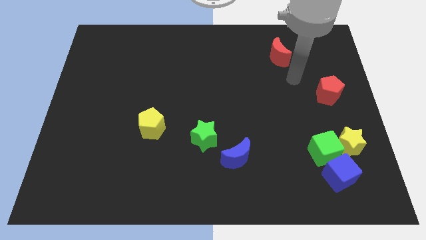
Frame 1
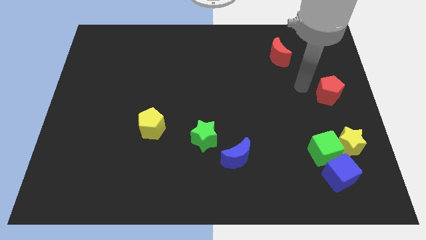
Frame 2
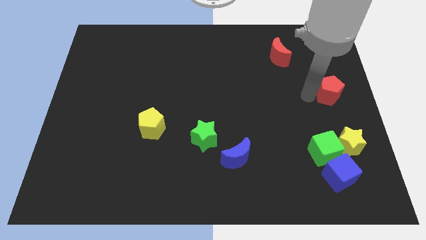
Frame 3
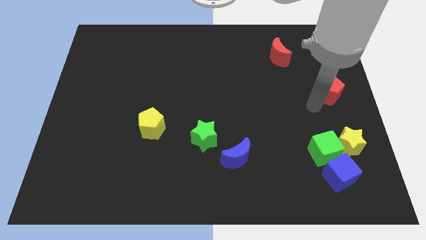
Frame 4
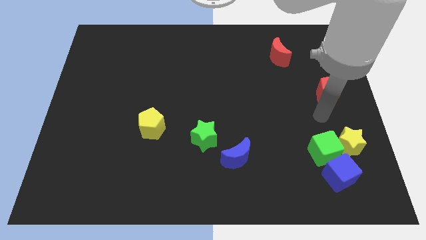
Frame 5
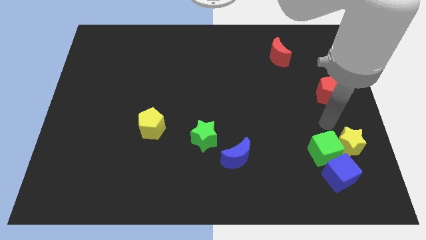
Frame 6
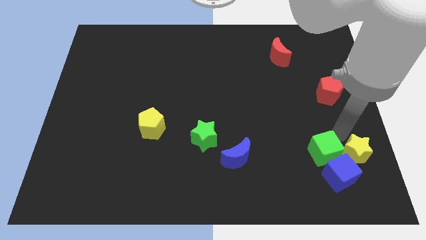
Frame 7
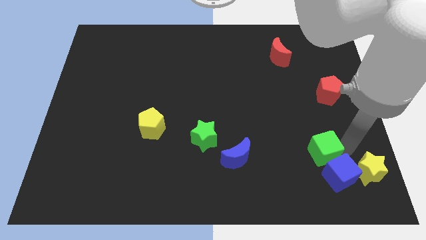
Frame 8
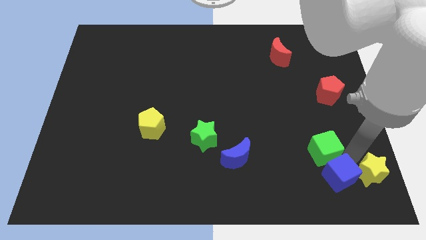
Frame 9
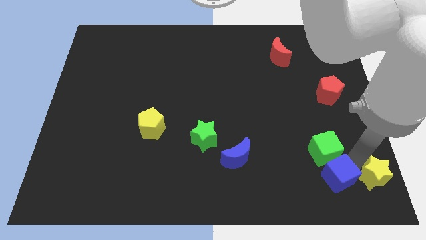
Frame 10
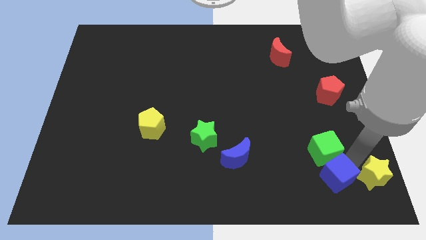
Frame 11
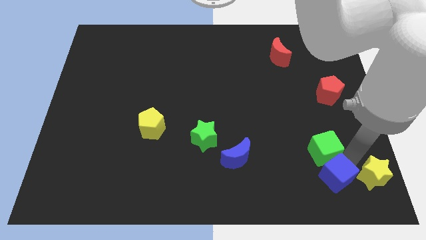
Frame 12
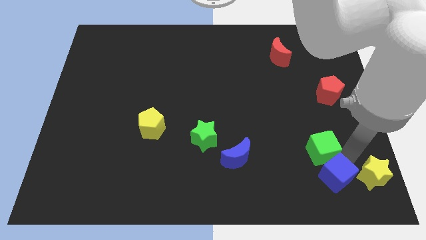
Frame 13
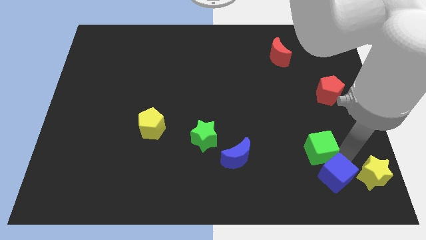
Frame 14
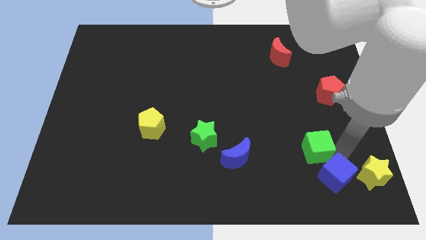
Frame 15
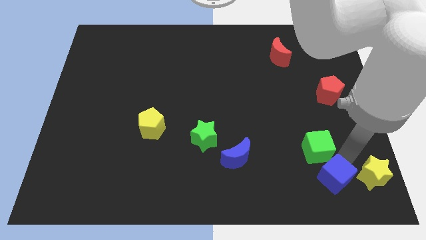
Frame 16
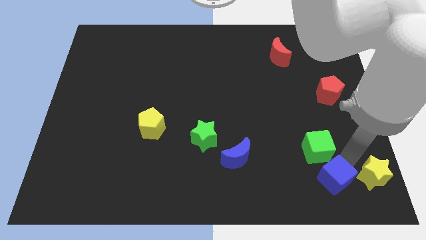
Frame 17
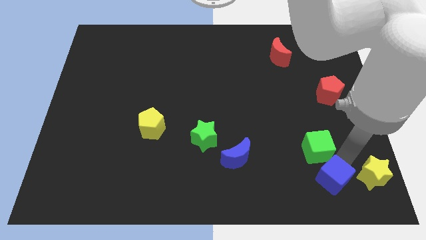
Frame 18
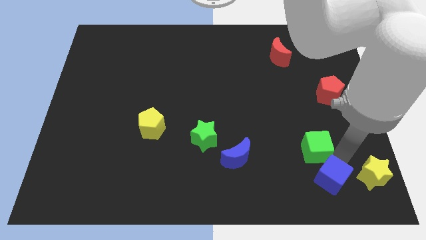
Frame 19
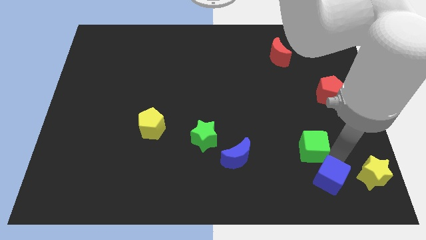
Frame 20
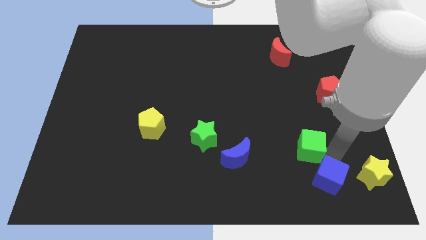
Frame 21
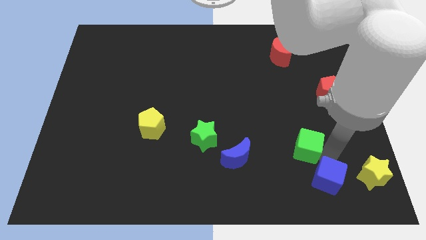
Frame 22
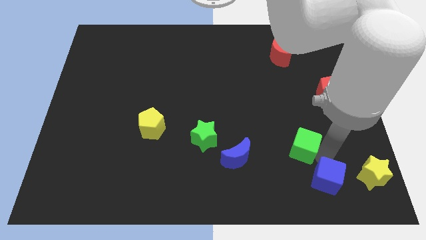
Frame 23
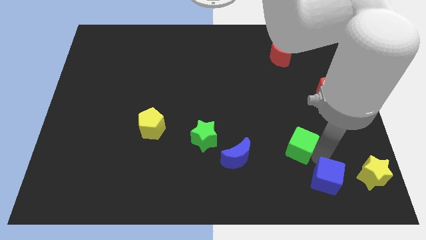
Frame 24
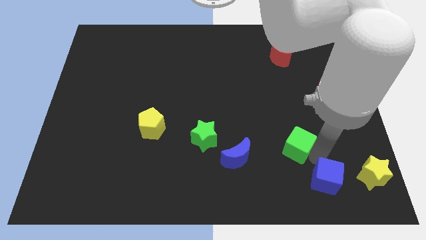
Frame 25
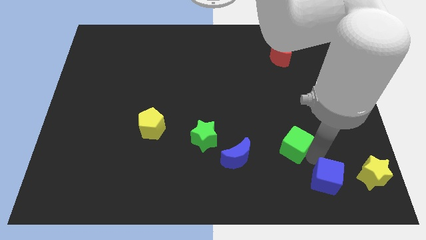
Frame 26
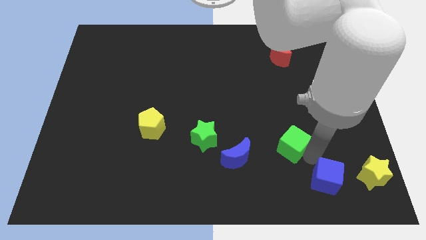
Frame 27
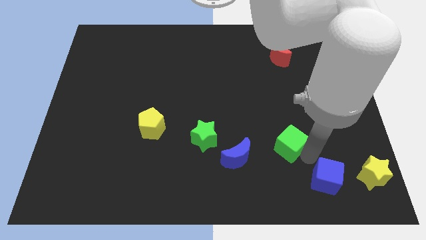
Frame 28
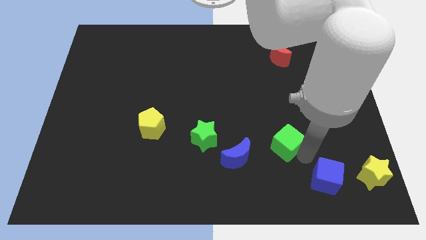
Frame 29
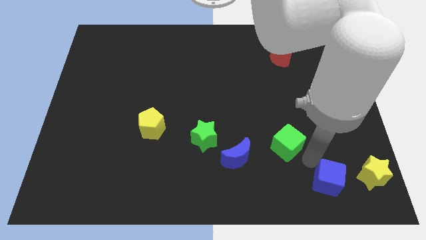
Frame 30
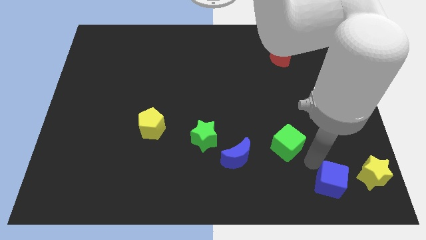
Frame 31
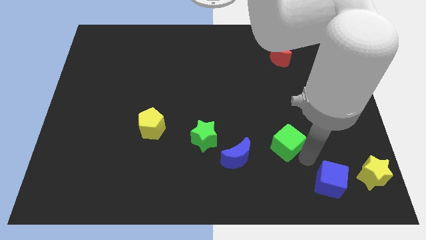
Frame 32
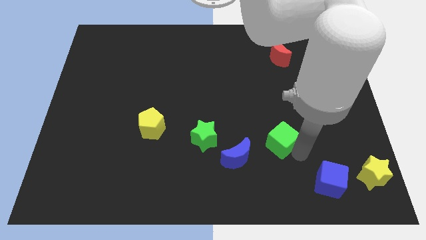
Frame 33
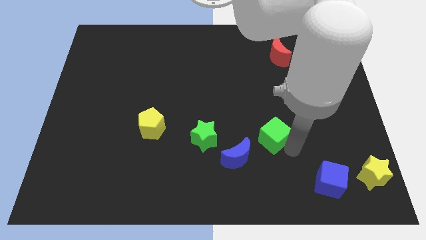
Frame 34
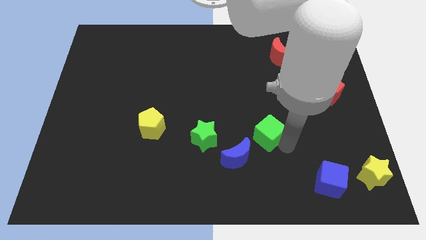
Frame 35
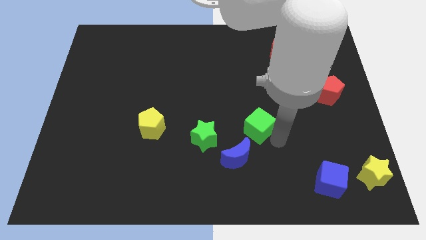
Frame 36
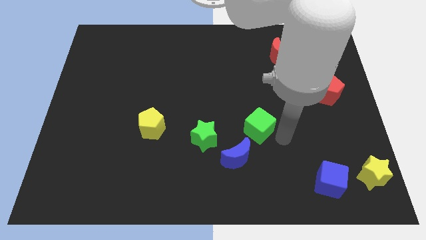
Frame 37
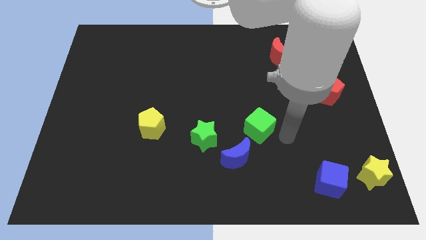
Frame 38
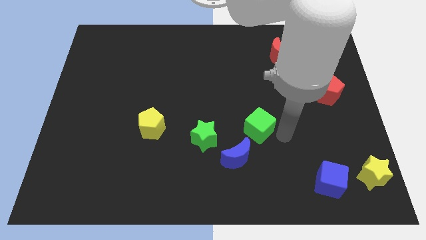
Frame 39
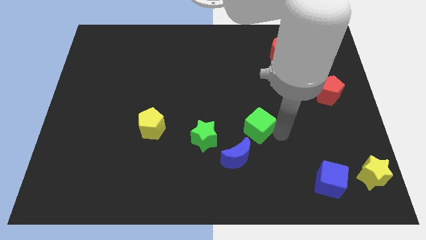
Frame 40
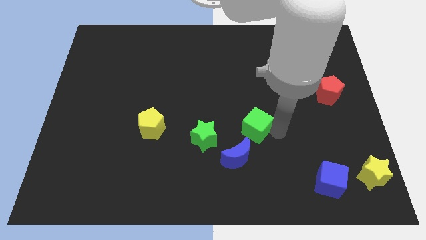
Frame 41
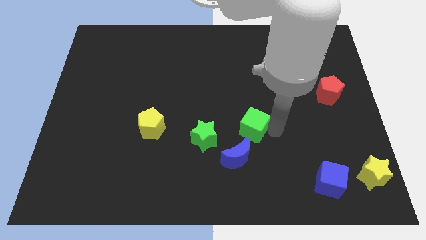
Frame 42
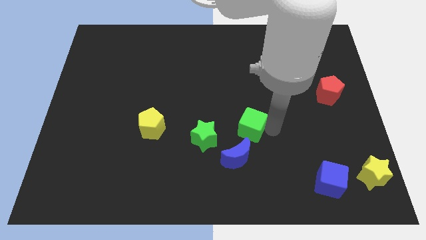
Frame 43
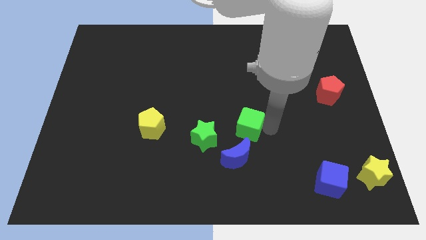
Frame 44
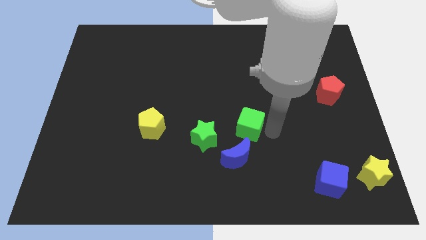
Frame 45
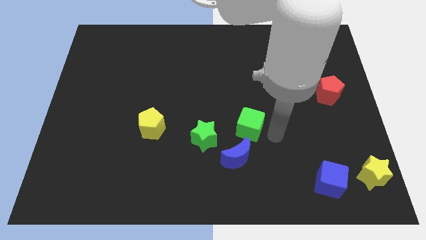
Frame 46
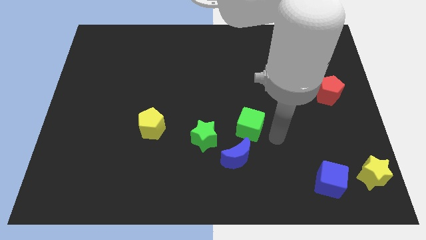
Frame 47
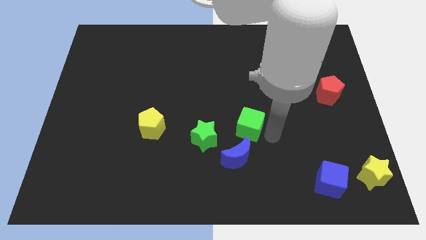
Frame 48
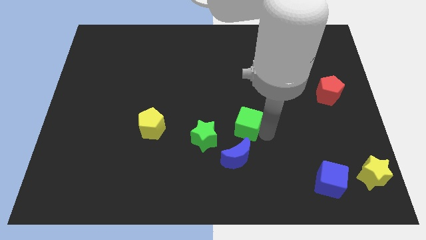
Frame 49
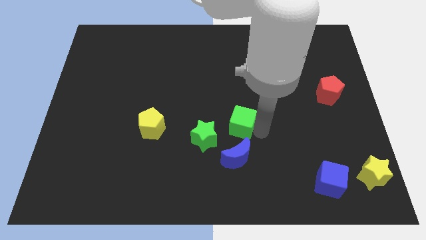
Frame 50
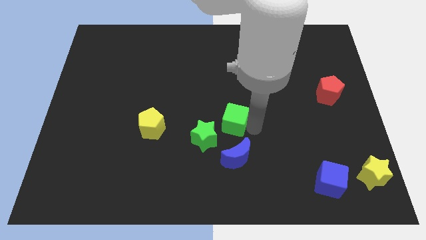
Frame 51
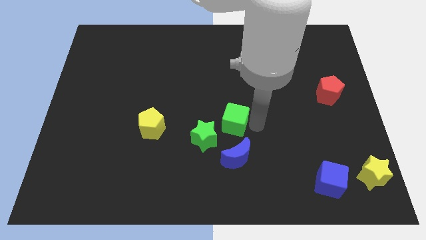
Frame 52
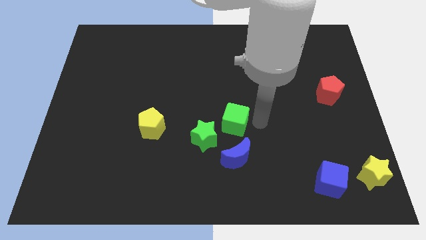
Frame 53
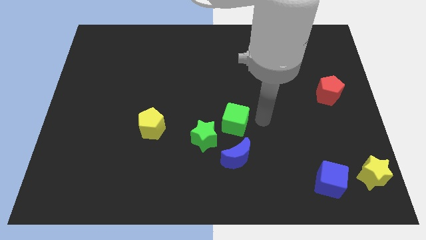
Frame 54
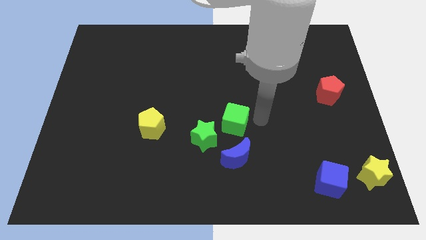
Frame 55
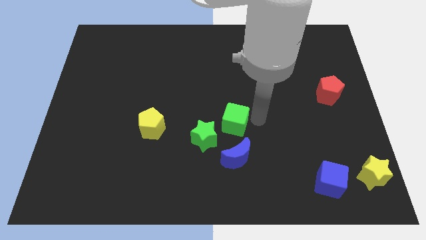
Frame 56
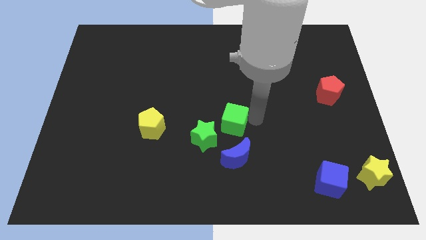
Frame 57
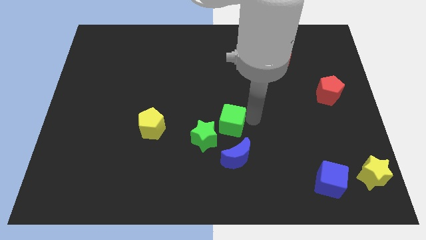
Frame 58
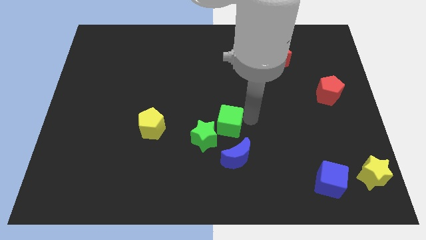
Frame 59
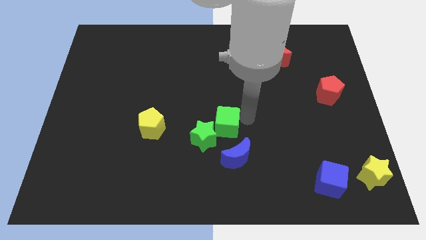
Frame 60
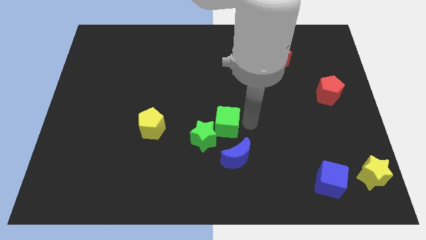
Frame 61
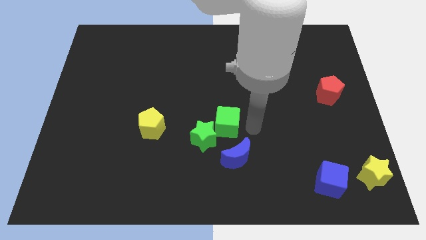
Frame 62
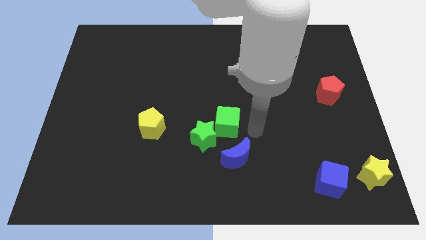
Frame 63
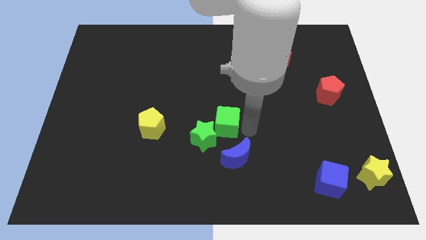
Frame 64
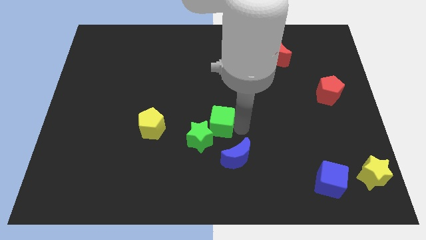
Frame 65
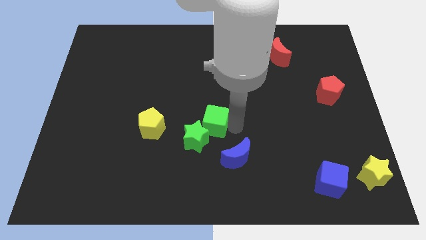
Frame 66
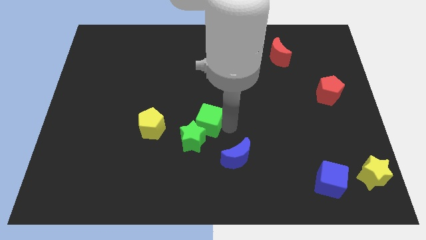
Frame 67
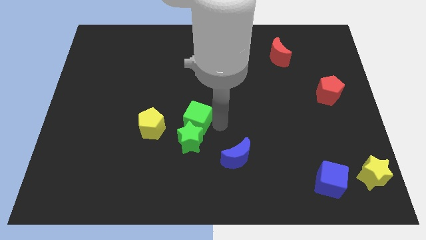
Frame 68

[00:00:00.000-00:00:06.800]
slide the green cube to the top left of the green star

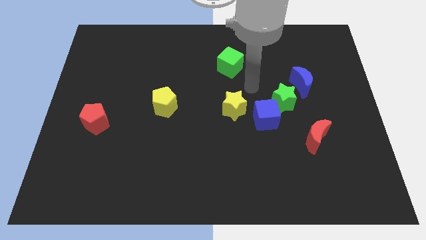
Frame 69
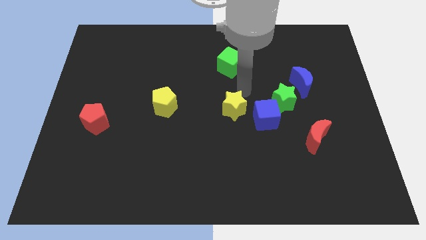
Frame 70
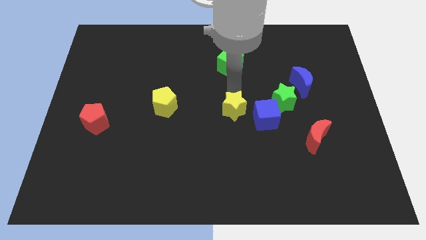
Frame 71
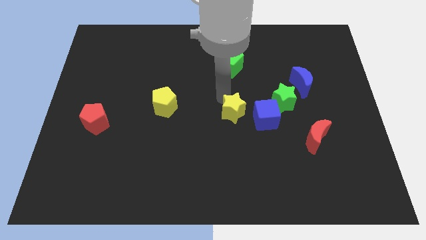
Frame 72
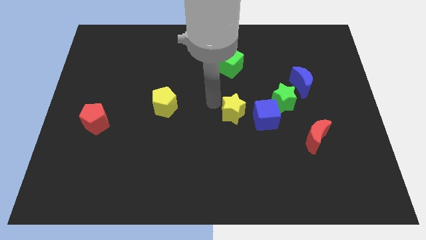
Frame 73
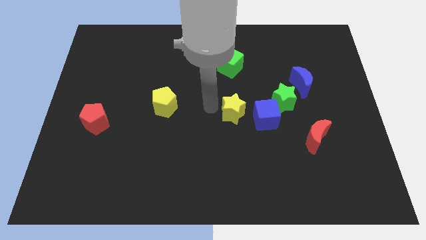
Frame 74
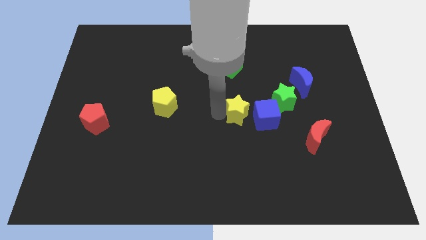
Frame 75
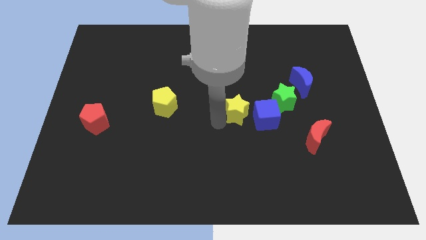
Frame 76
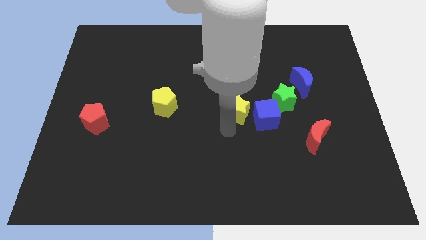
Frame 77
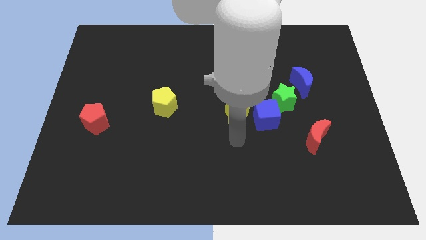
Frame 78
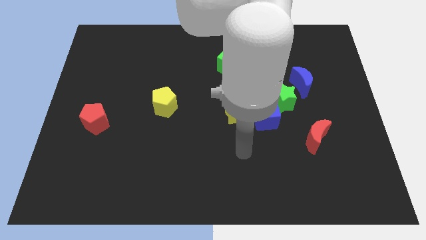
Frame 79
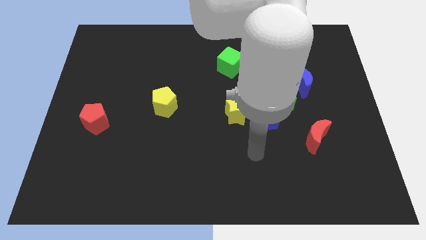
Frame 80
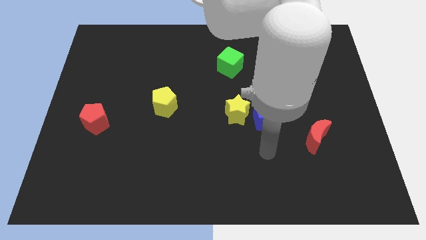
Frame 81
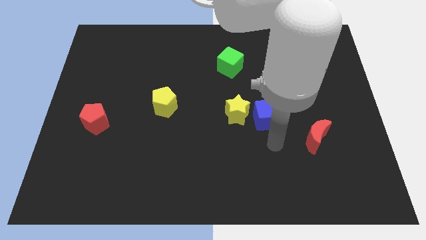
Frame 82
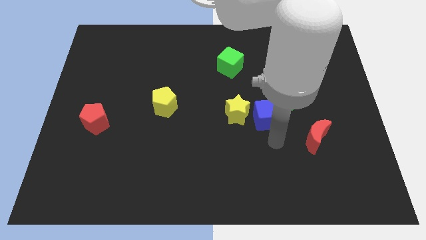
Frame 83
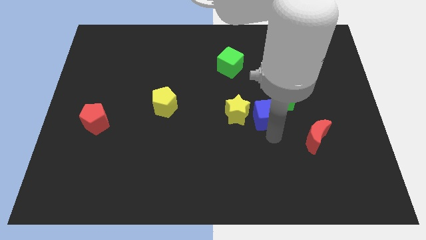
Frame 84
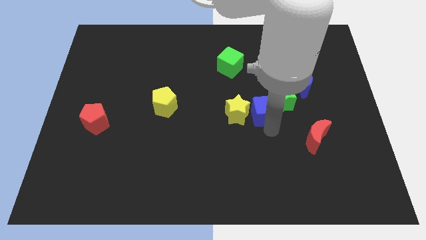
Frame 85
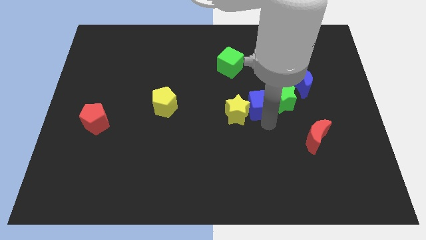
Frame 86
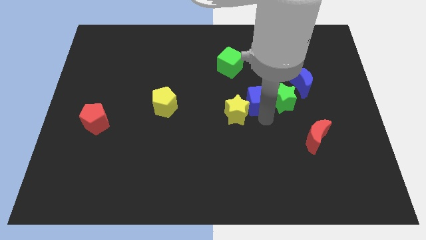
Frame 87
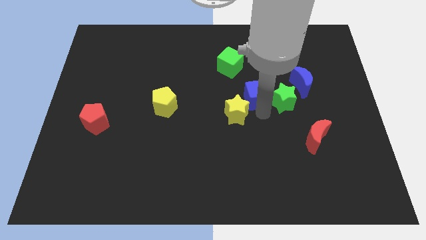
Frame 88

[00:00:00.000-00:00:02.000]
put the blue cube to the bottom right of the green cube
